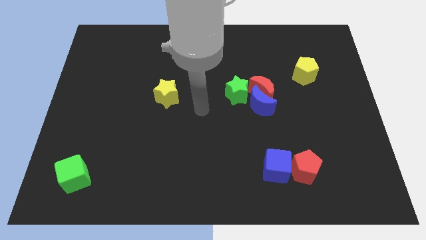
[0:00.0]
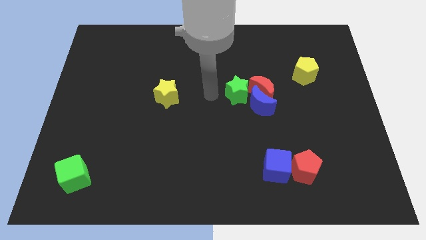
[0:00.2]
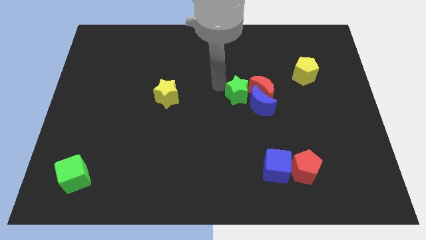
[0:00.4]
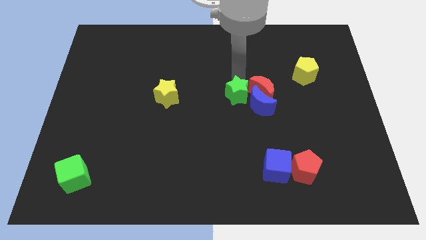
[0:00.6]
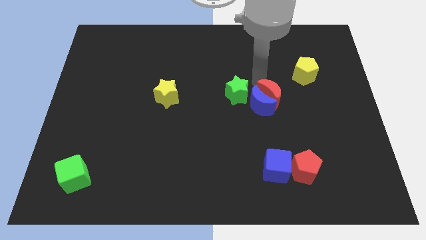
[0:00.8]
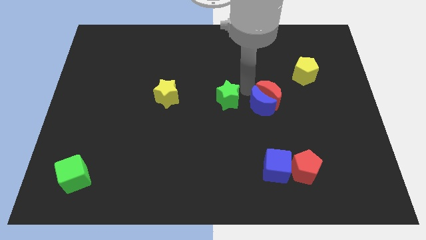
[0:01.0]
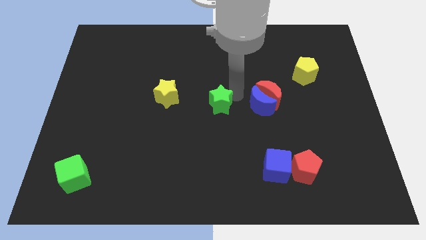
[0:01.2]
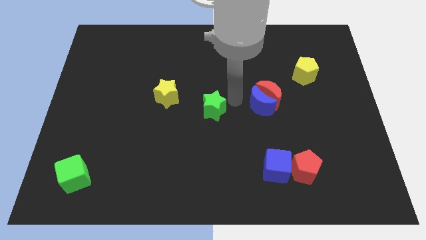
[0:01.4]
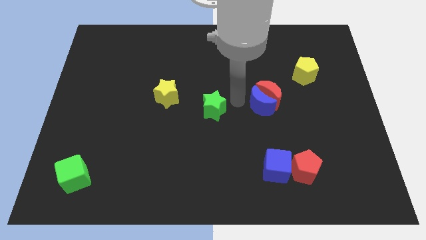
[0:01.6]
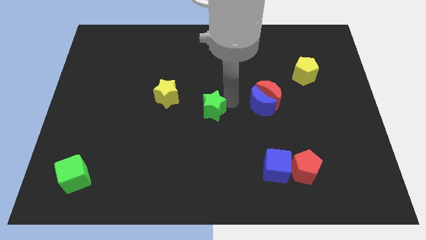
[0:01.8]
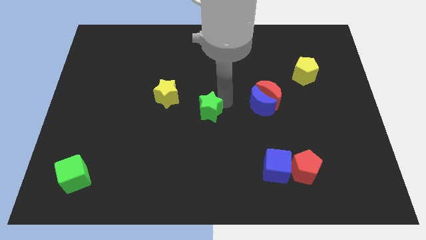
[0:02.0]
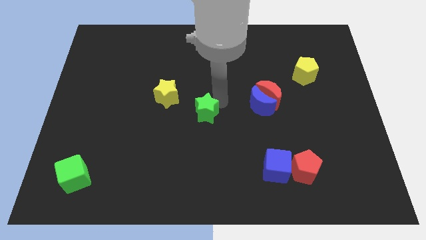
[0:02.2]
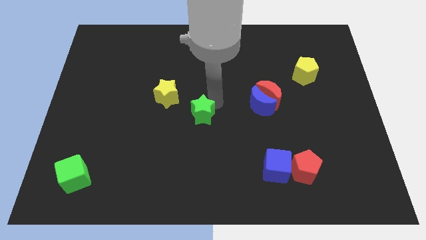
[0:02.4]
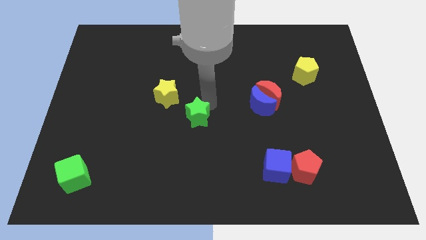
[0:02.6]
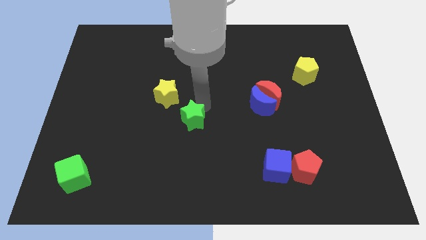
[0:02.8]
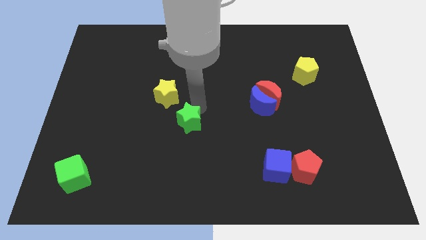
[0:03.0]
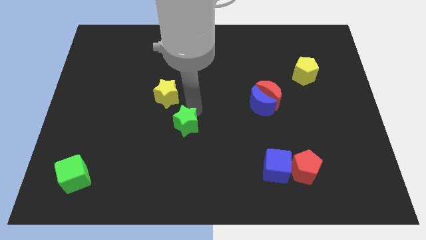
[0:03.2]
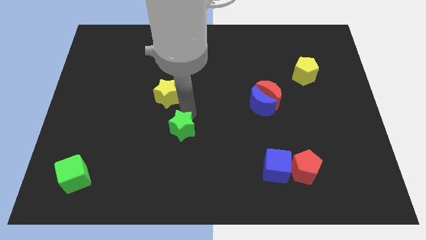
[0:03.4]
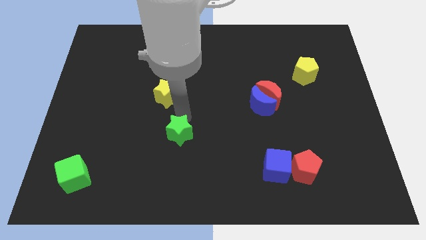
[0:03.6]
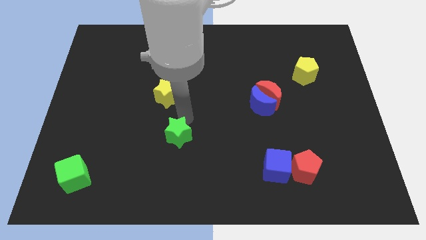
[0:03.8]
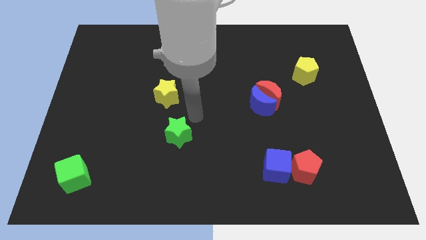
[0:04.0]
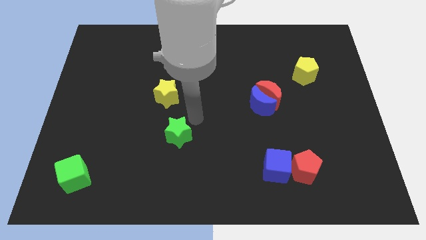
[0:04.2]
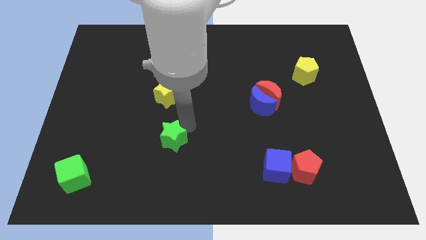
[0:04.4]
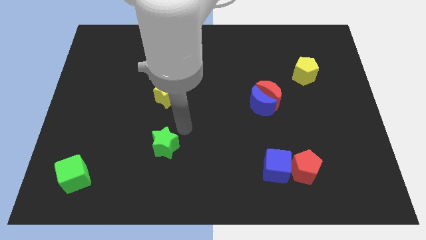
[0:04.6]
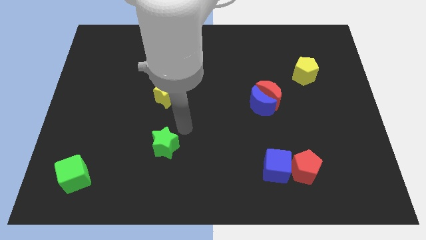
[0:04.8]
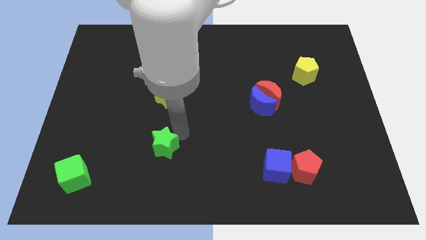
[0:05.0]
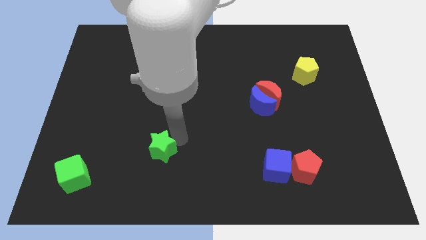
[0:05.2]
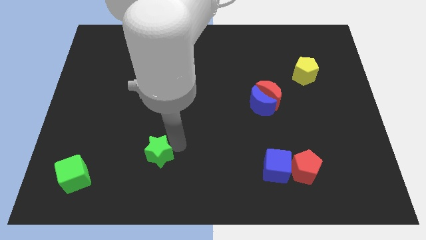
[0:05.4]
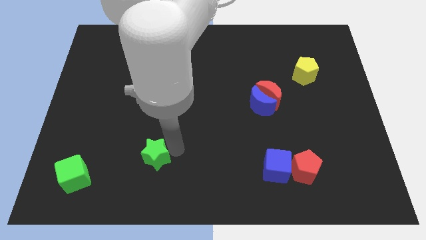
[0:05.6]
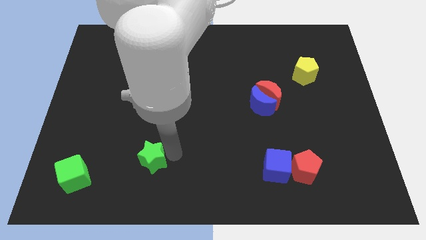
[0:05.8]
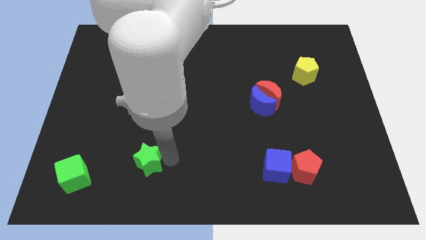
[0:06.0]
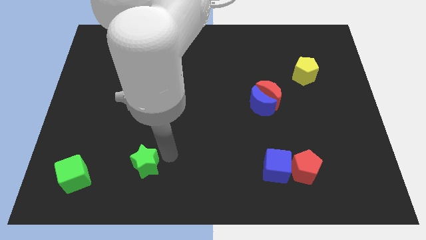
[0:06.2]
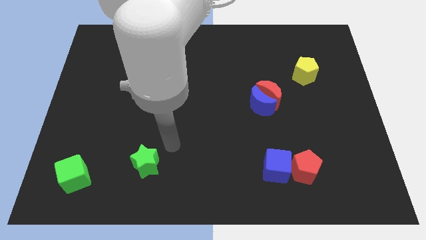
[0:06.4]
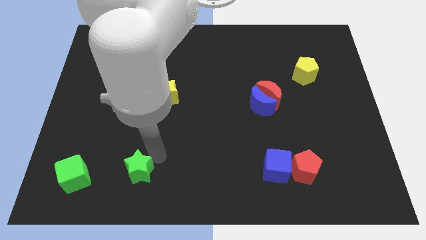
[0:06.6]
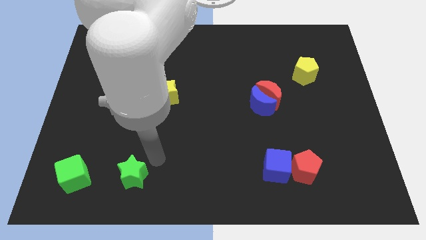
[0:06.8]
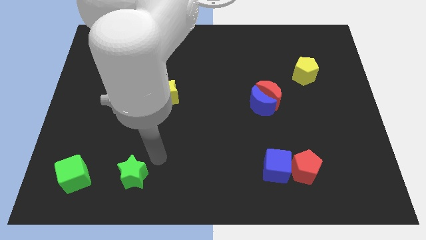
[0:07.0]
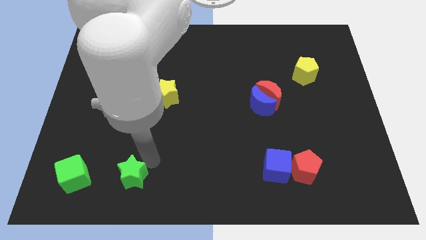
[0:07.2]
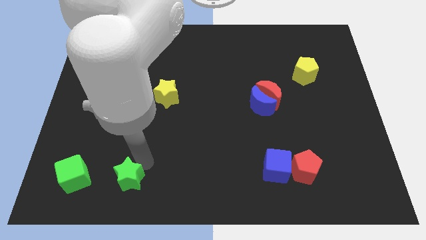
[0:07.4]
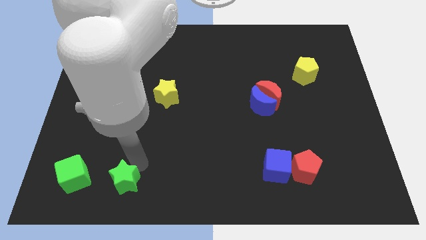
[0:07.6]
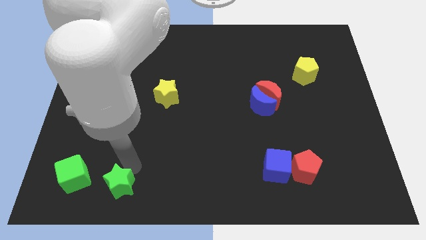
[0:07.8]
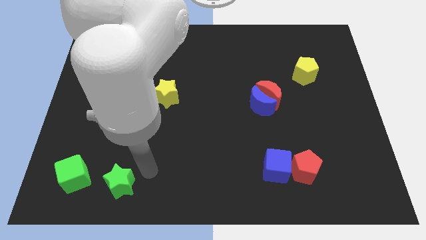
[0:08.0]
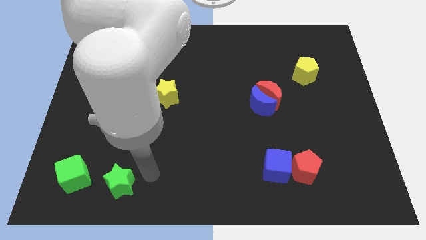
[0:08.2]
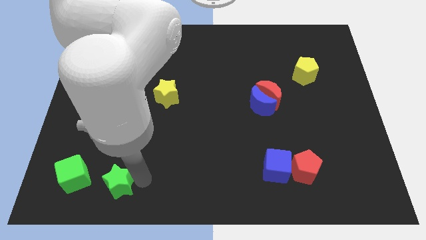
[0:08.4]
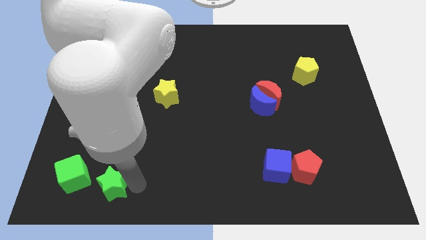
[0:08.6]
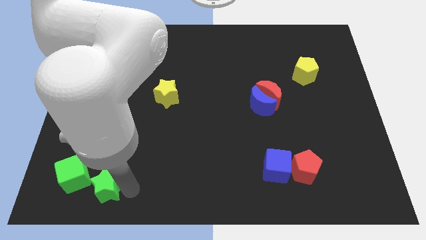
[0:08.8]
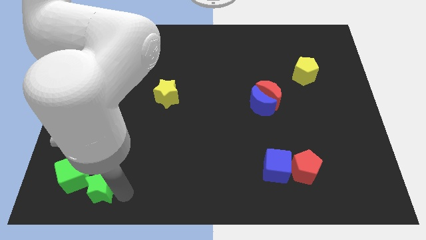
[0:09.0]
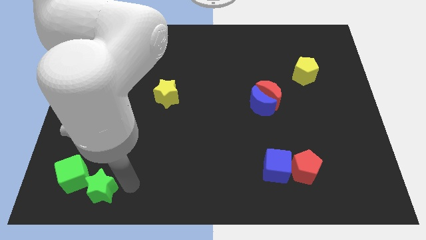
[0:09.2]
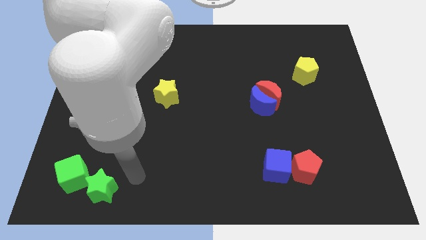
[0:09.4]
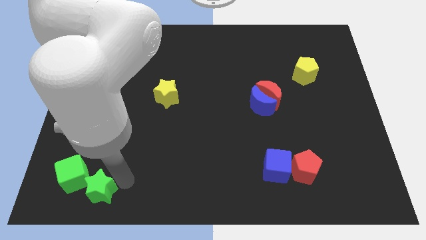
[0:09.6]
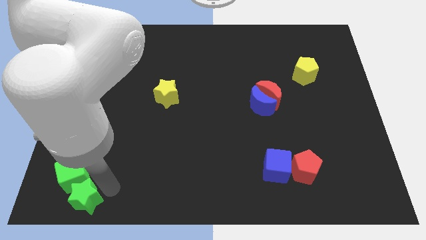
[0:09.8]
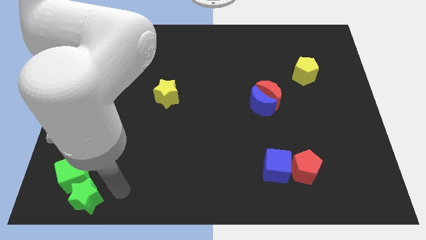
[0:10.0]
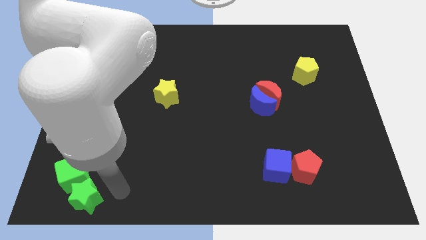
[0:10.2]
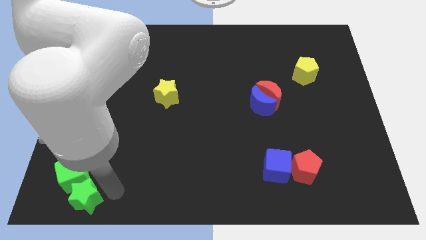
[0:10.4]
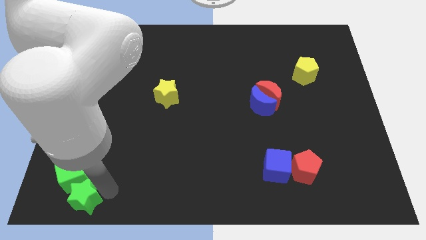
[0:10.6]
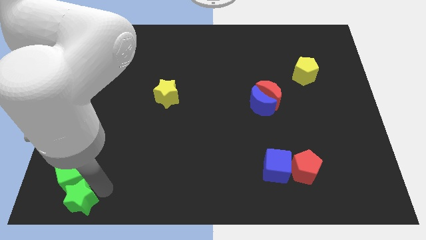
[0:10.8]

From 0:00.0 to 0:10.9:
put the green star to the lower left corner
